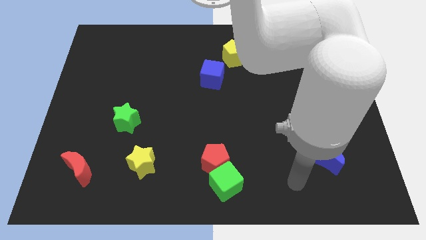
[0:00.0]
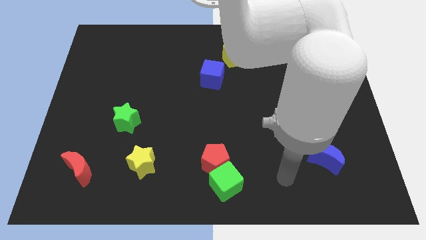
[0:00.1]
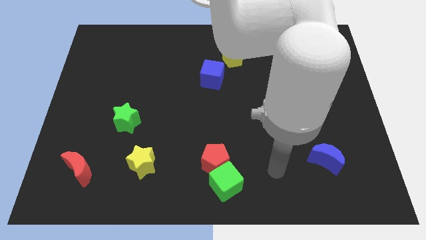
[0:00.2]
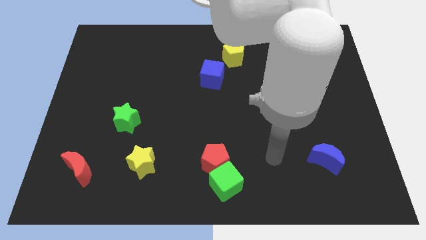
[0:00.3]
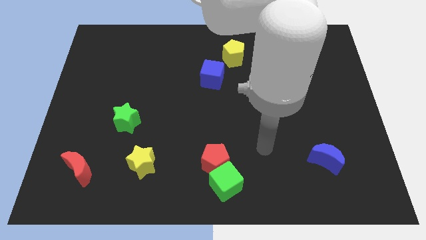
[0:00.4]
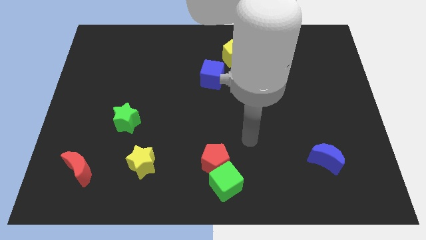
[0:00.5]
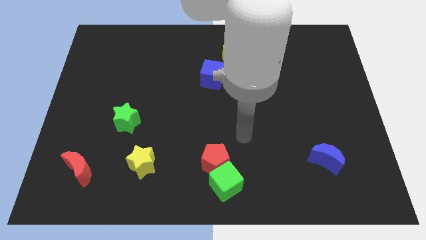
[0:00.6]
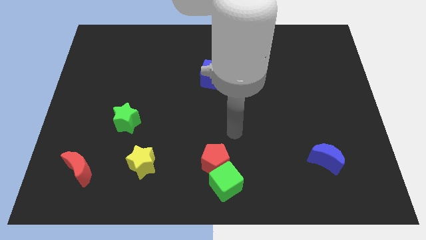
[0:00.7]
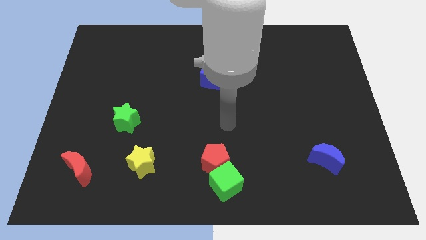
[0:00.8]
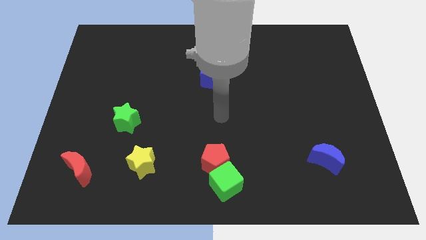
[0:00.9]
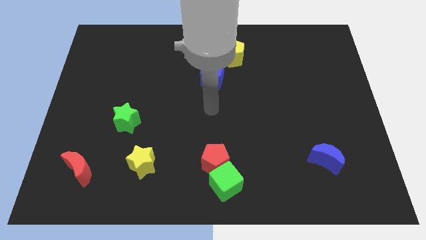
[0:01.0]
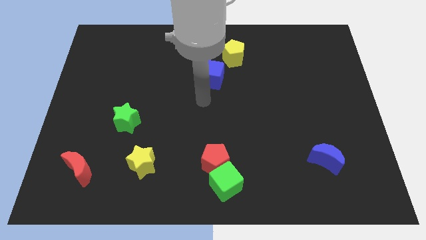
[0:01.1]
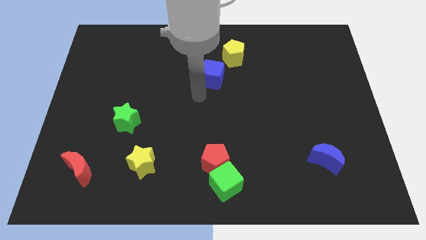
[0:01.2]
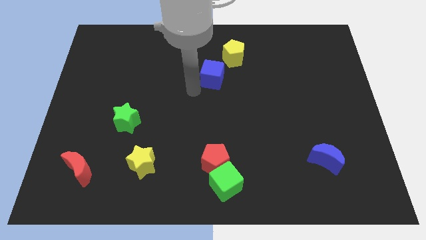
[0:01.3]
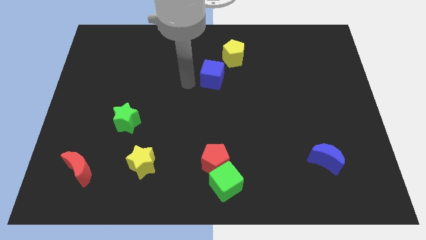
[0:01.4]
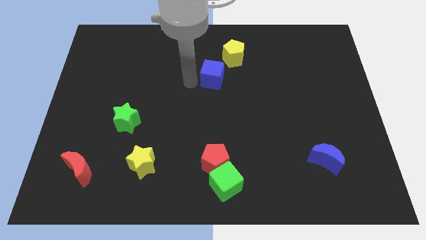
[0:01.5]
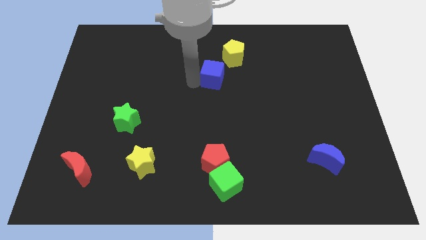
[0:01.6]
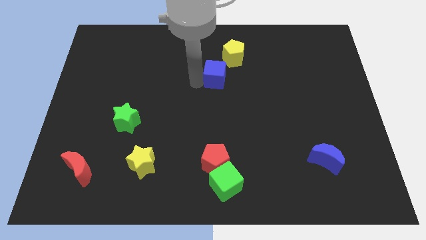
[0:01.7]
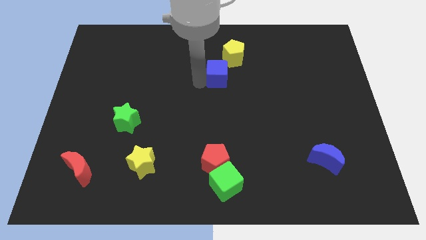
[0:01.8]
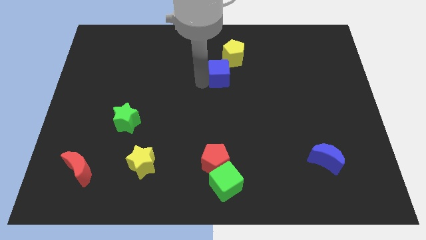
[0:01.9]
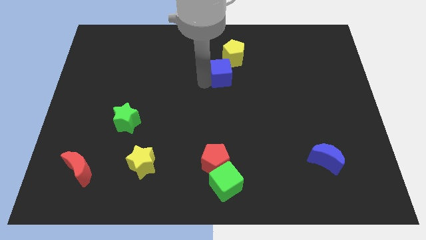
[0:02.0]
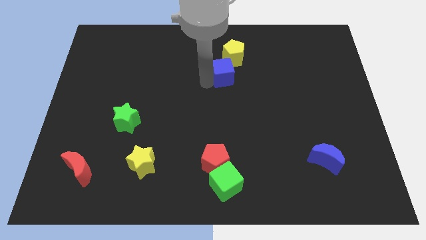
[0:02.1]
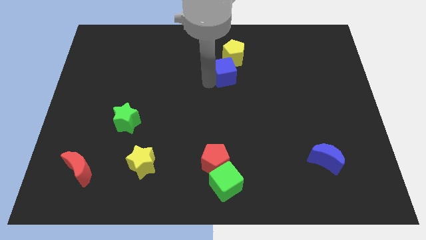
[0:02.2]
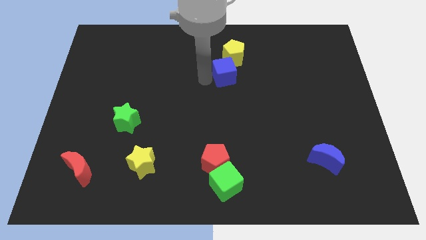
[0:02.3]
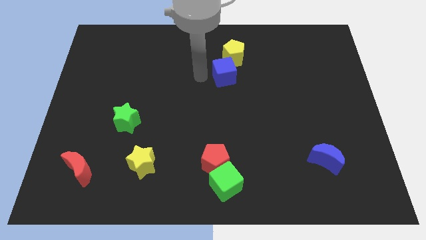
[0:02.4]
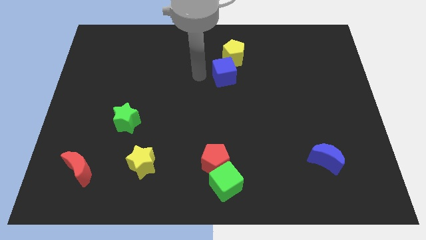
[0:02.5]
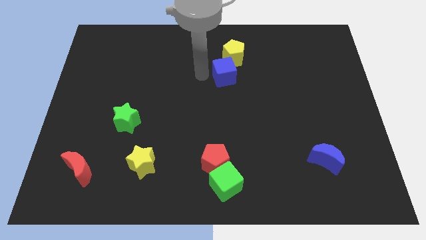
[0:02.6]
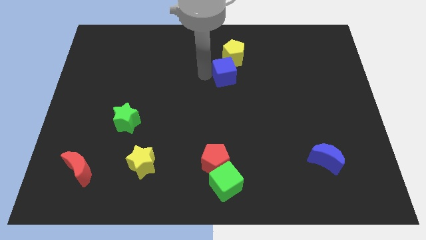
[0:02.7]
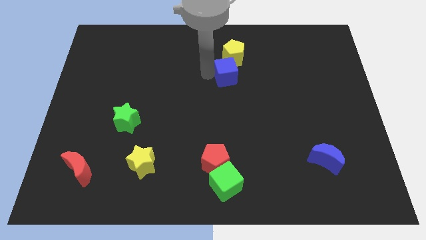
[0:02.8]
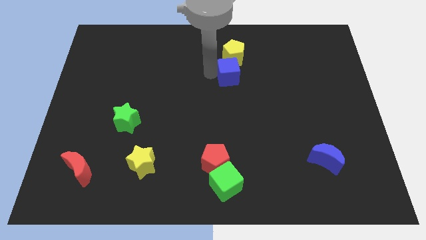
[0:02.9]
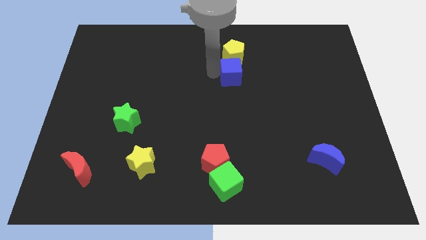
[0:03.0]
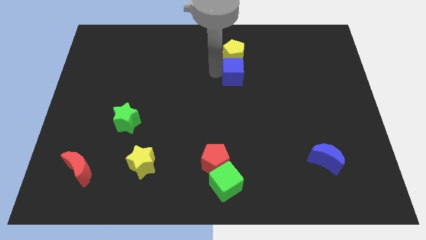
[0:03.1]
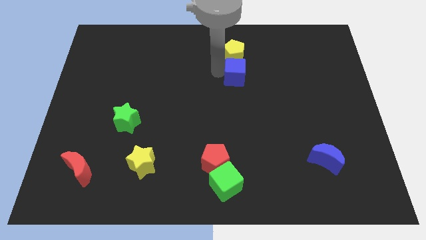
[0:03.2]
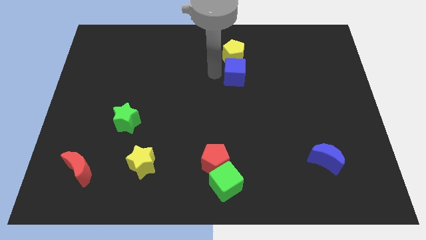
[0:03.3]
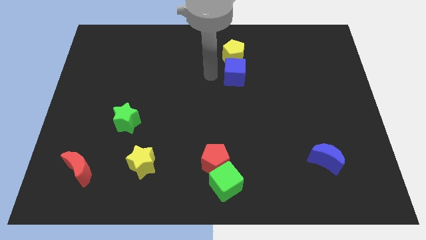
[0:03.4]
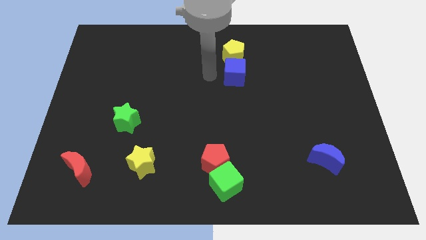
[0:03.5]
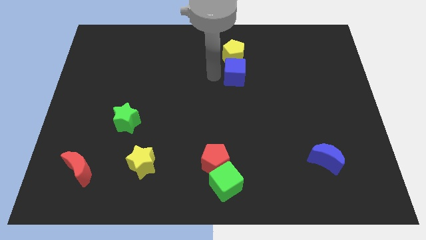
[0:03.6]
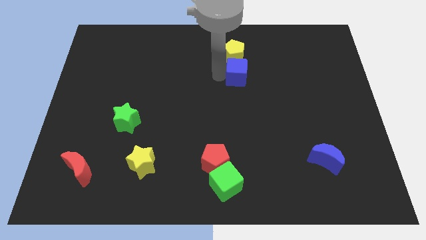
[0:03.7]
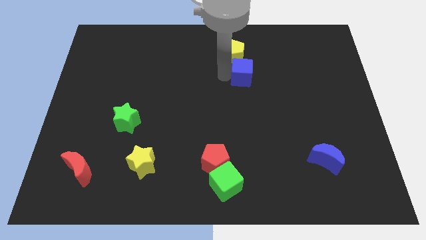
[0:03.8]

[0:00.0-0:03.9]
slide the blue cube a little to the right

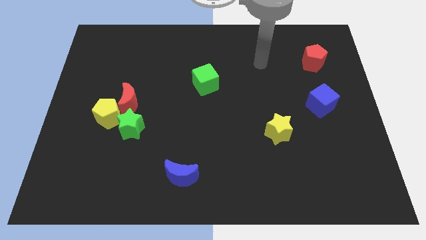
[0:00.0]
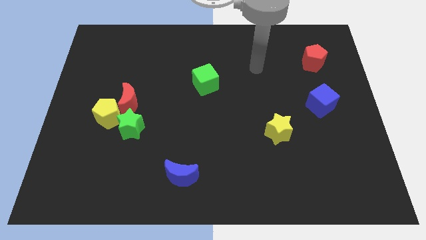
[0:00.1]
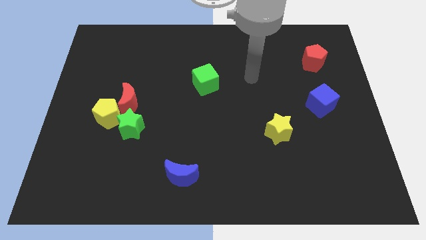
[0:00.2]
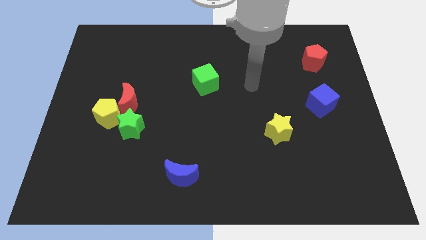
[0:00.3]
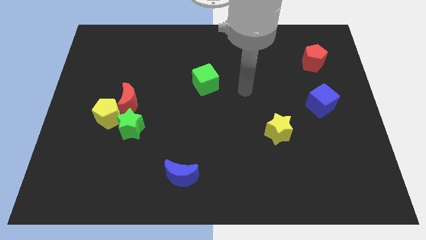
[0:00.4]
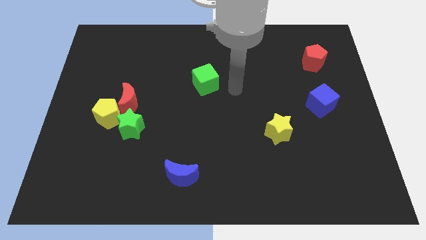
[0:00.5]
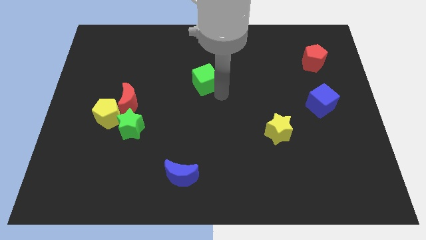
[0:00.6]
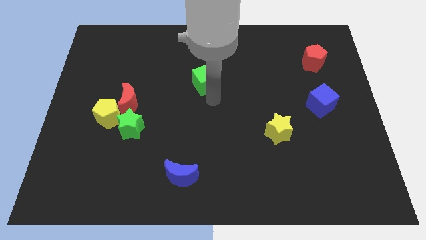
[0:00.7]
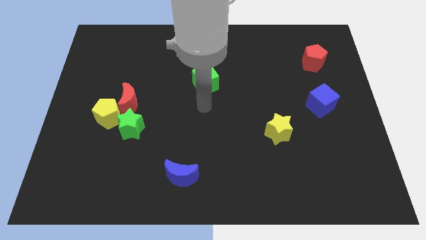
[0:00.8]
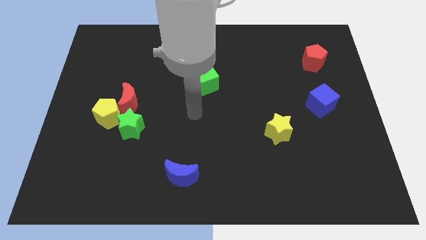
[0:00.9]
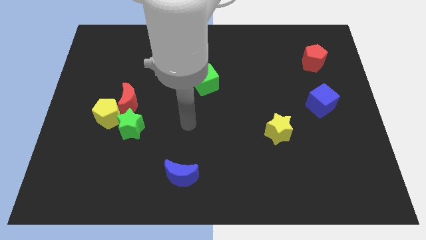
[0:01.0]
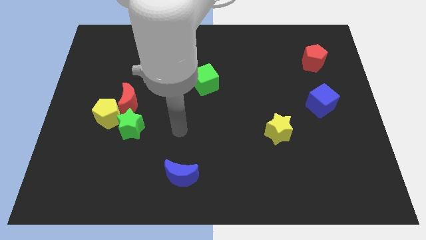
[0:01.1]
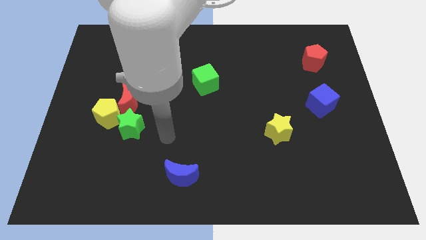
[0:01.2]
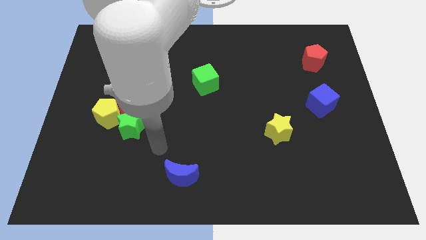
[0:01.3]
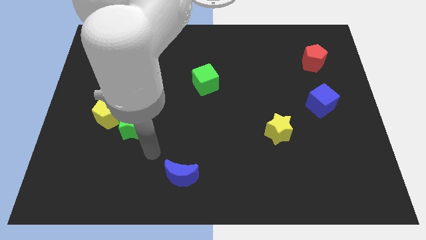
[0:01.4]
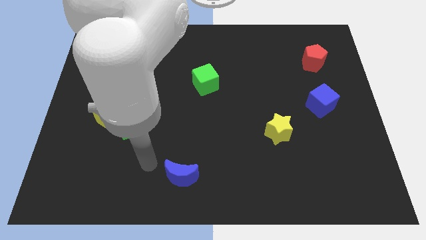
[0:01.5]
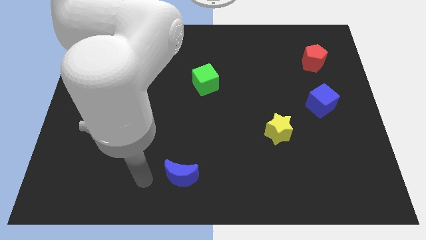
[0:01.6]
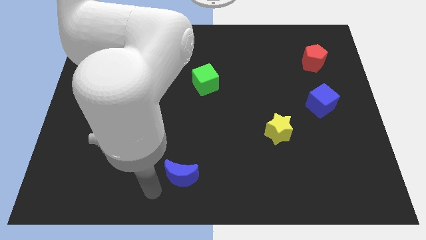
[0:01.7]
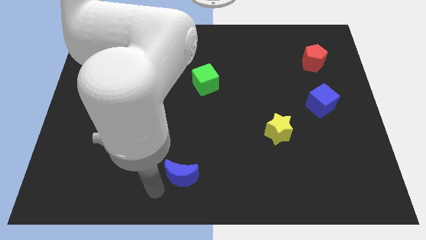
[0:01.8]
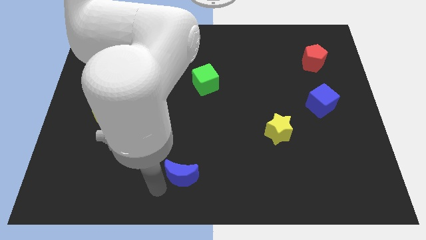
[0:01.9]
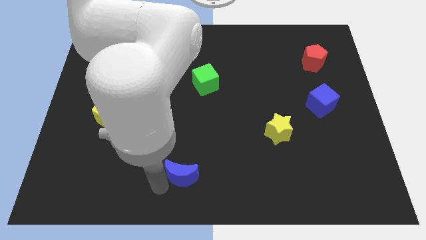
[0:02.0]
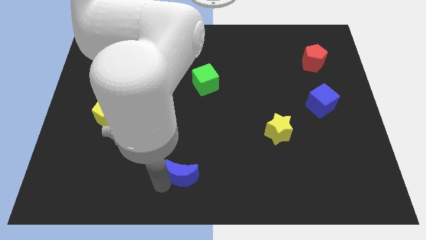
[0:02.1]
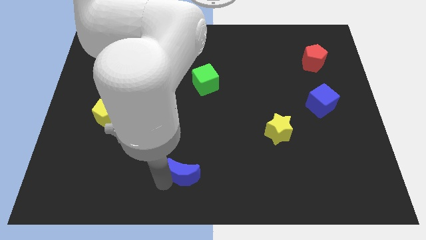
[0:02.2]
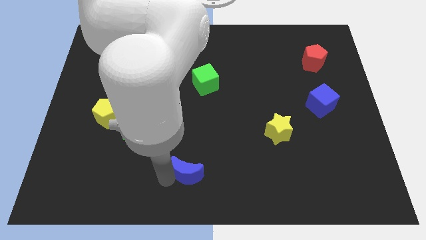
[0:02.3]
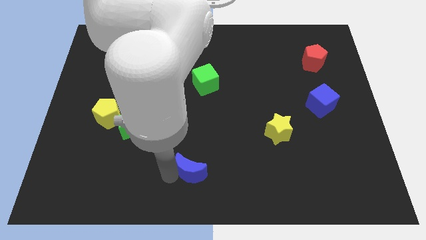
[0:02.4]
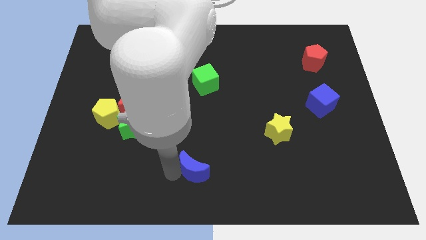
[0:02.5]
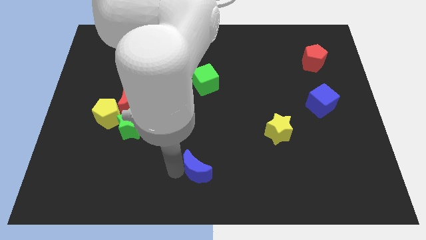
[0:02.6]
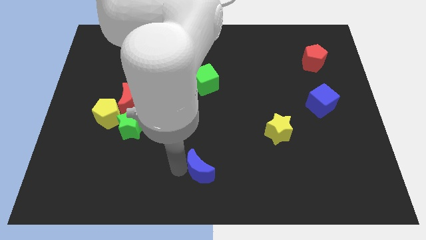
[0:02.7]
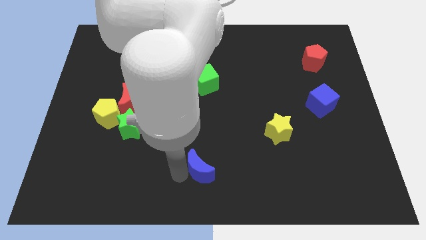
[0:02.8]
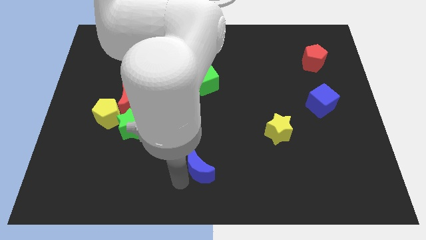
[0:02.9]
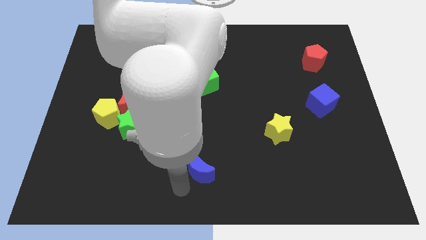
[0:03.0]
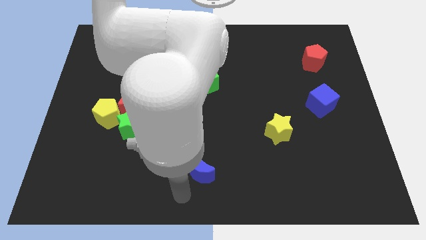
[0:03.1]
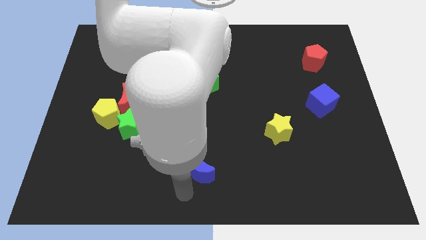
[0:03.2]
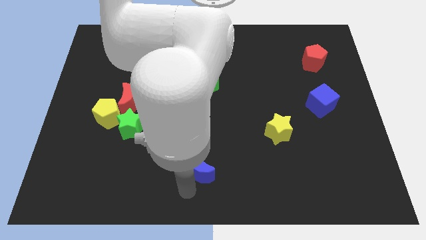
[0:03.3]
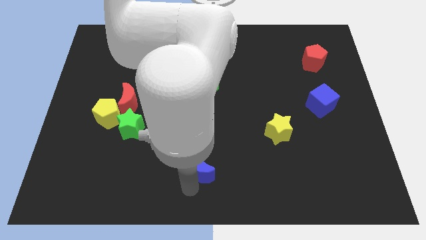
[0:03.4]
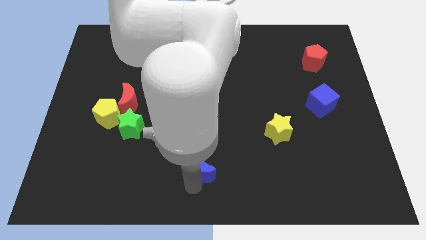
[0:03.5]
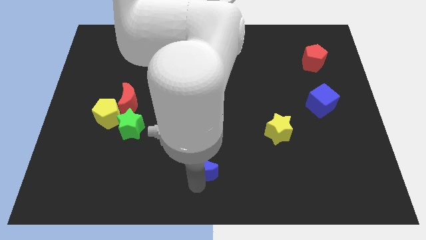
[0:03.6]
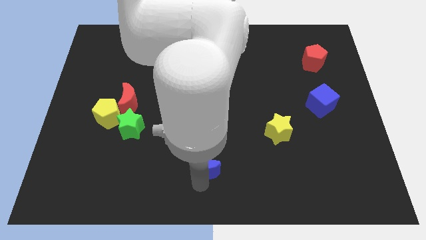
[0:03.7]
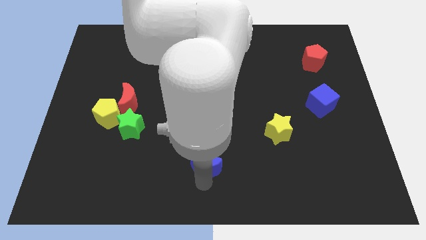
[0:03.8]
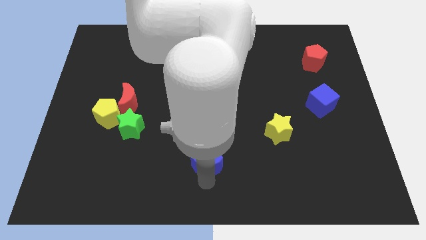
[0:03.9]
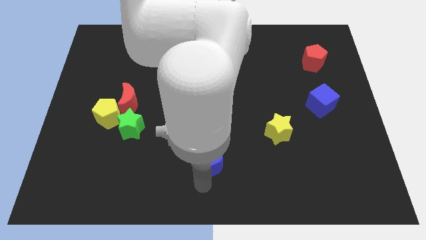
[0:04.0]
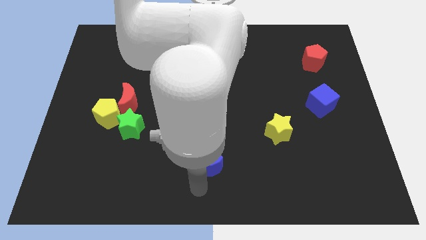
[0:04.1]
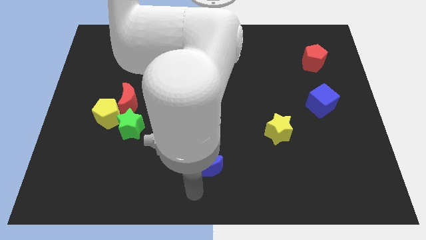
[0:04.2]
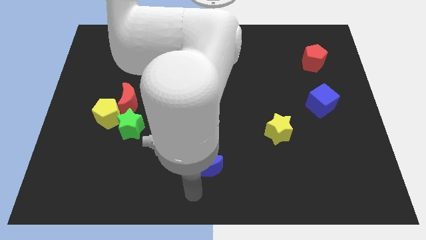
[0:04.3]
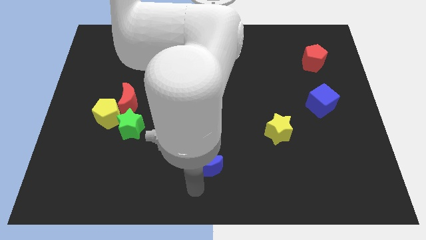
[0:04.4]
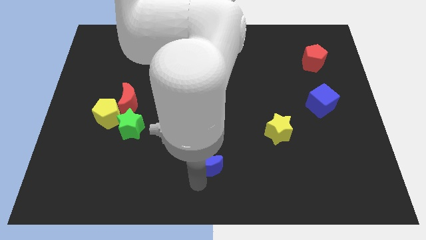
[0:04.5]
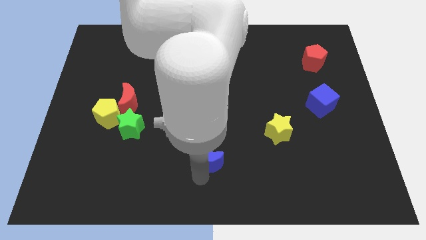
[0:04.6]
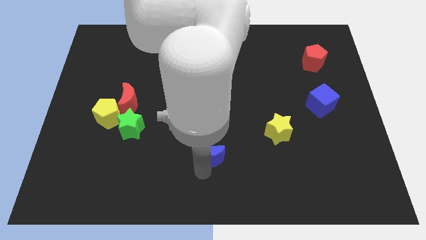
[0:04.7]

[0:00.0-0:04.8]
slightly push the blue moon up and then to the right
